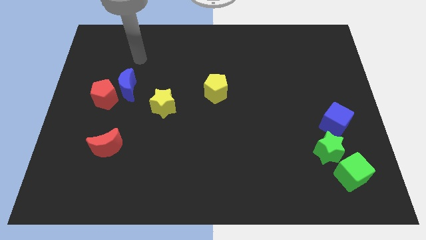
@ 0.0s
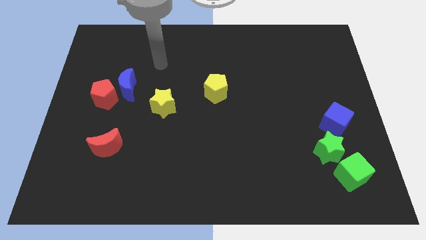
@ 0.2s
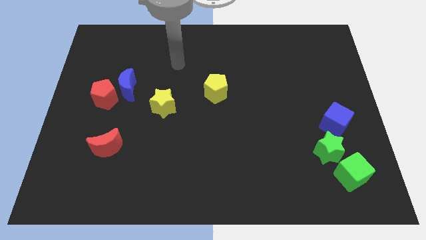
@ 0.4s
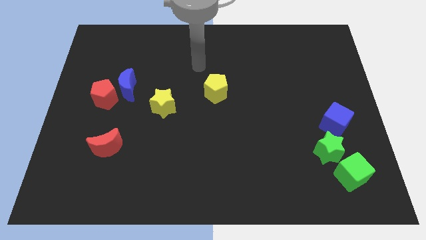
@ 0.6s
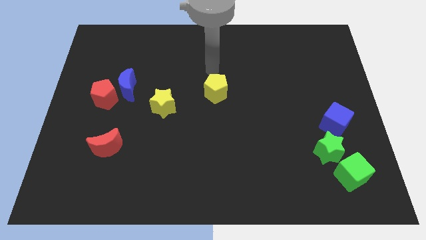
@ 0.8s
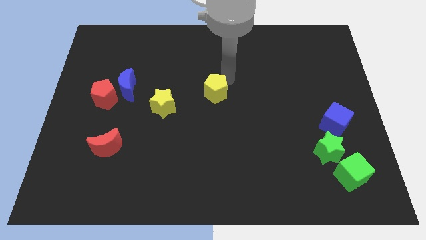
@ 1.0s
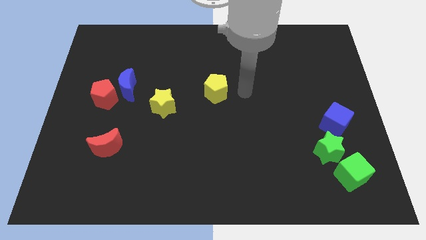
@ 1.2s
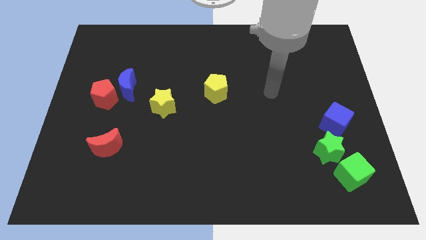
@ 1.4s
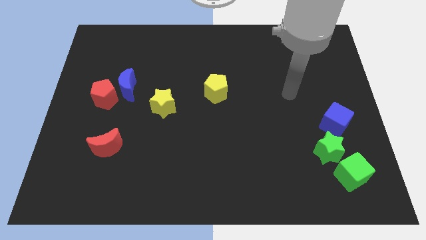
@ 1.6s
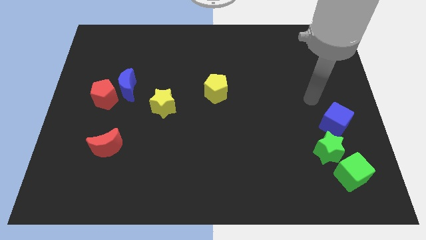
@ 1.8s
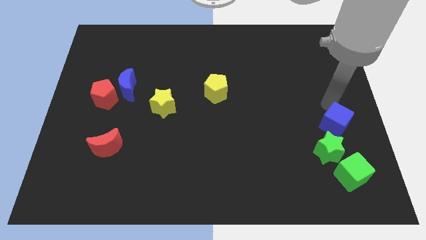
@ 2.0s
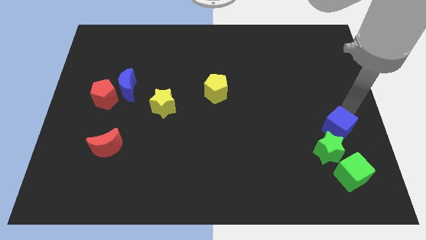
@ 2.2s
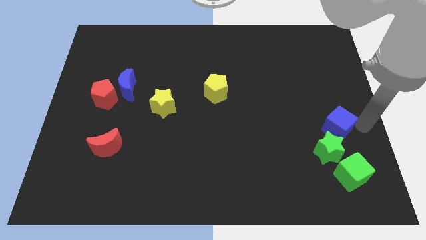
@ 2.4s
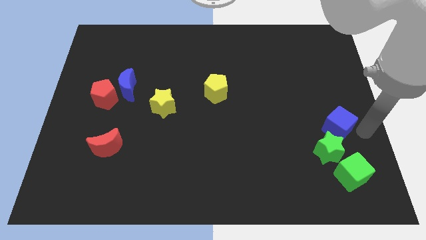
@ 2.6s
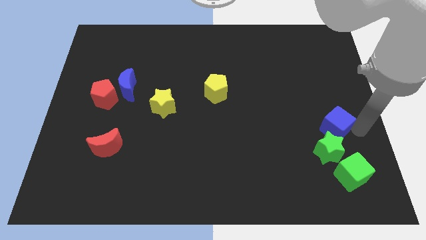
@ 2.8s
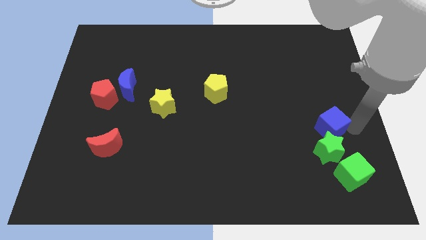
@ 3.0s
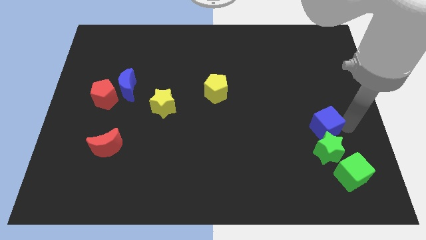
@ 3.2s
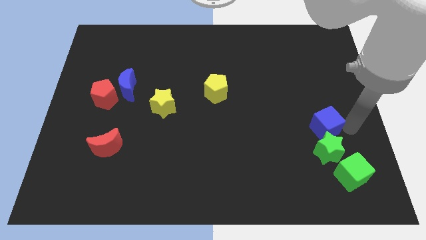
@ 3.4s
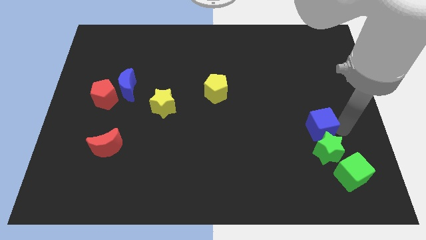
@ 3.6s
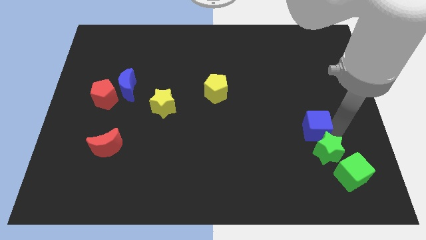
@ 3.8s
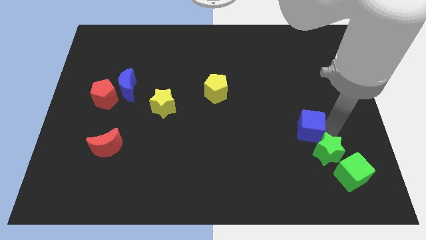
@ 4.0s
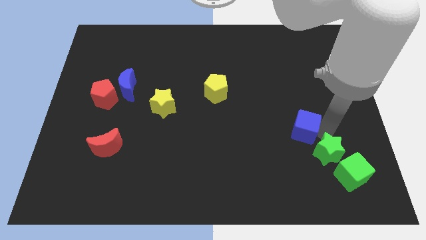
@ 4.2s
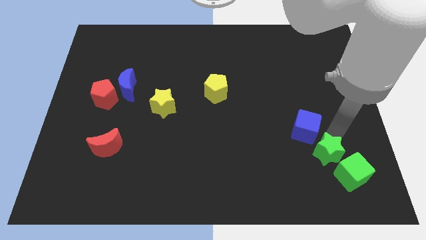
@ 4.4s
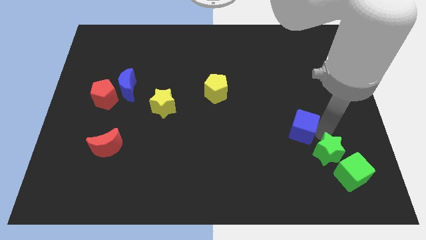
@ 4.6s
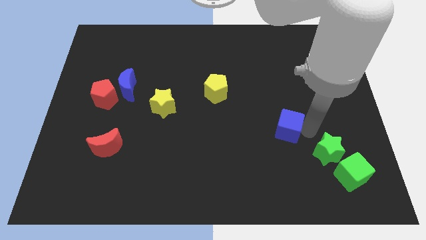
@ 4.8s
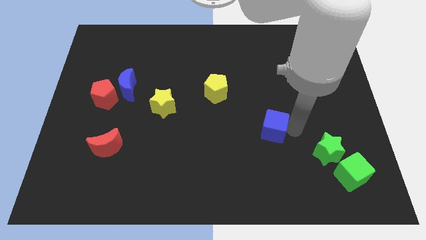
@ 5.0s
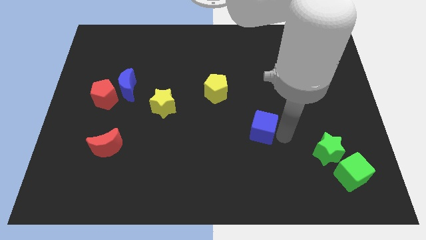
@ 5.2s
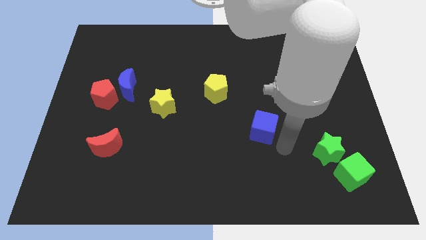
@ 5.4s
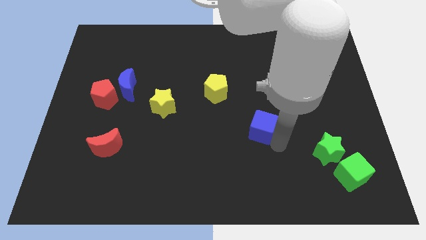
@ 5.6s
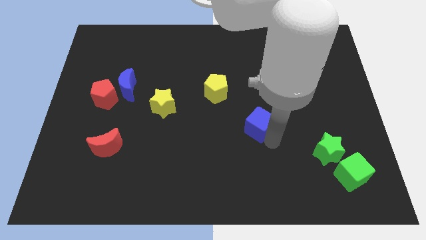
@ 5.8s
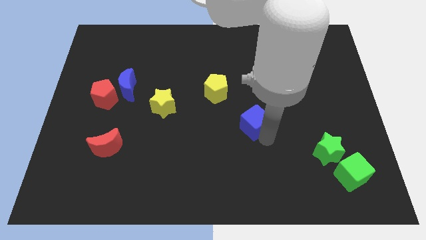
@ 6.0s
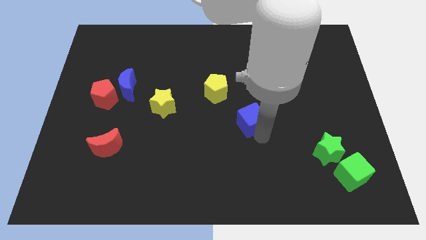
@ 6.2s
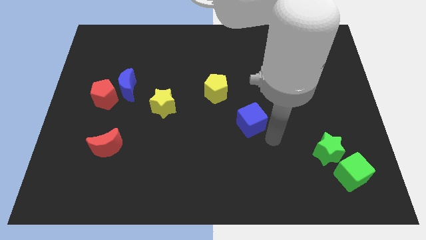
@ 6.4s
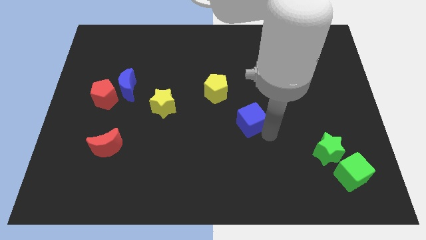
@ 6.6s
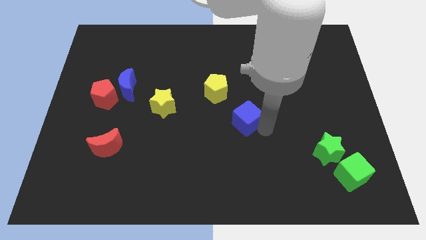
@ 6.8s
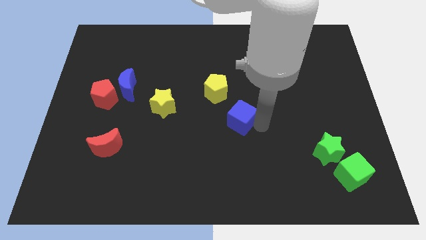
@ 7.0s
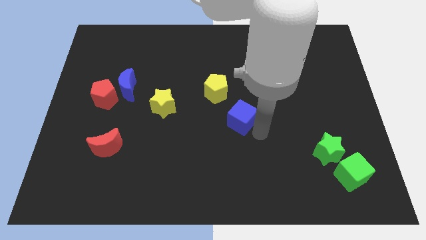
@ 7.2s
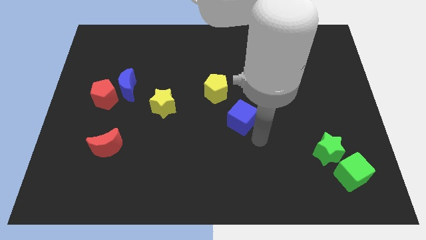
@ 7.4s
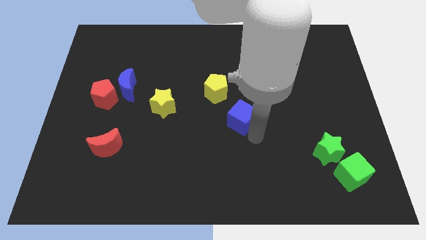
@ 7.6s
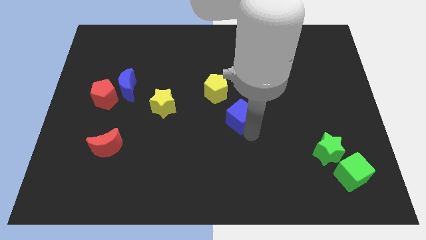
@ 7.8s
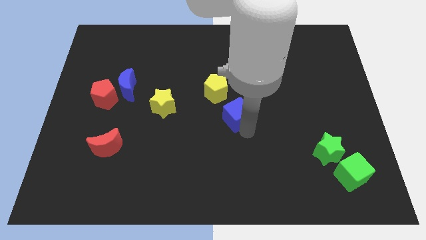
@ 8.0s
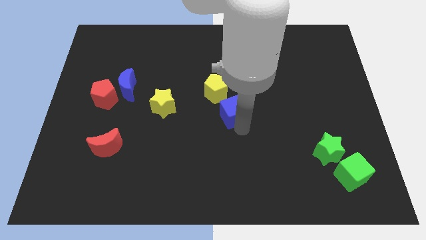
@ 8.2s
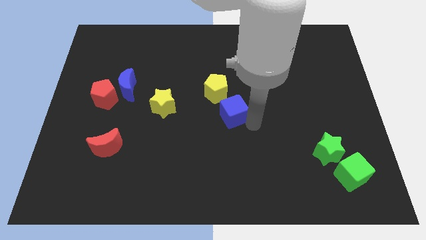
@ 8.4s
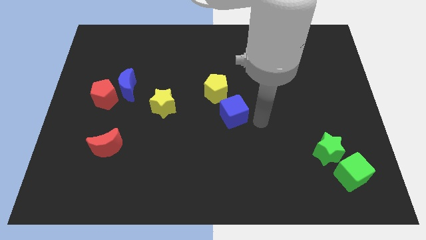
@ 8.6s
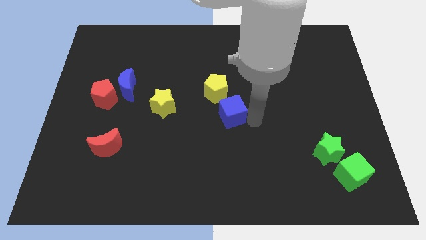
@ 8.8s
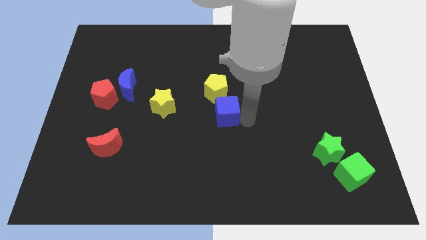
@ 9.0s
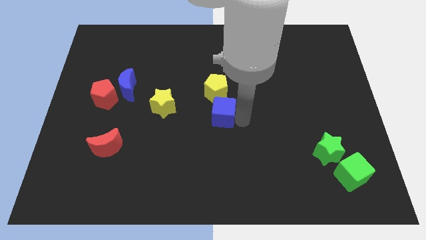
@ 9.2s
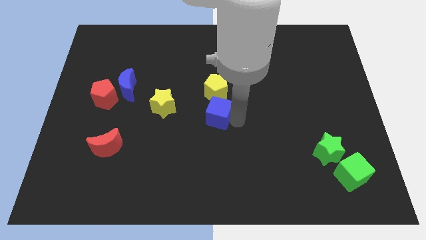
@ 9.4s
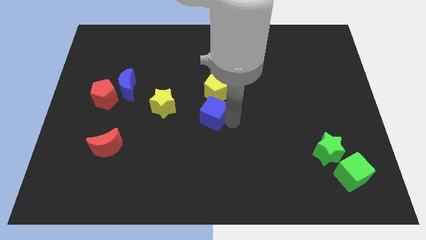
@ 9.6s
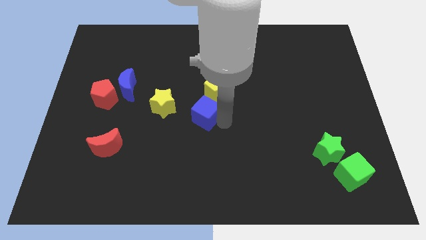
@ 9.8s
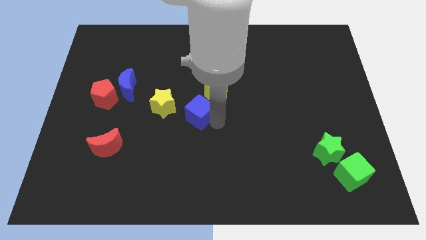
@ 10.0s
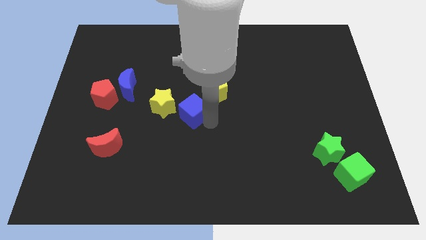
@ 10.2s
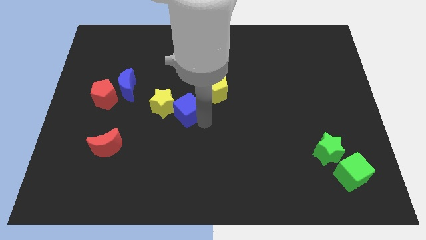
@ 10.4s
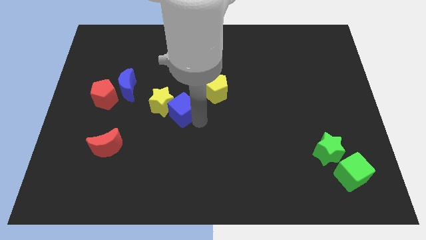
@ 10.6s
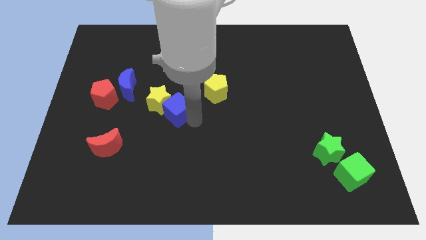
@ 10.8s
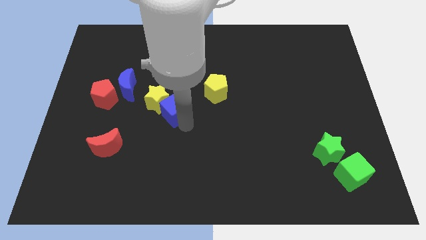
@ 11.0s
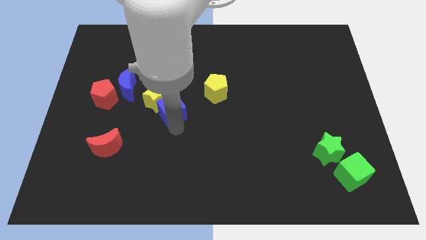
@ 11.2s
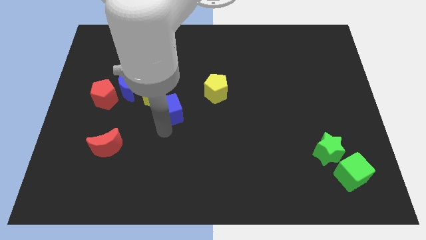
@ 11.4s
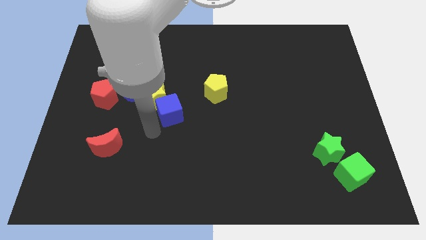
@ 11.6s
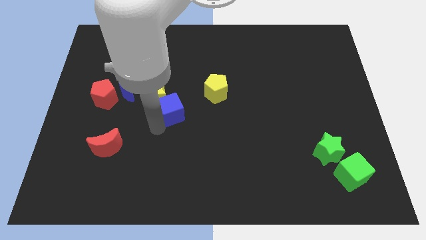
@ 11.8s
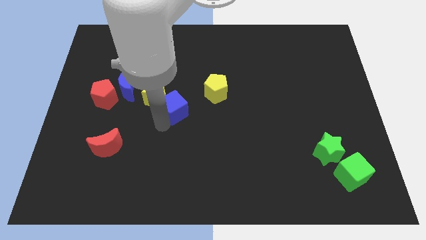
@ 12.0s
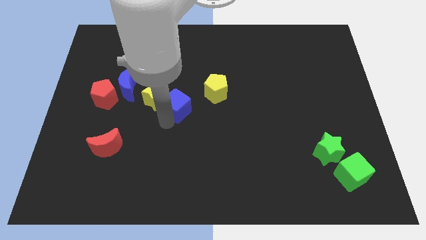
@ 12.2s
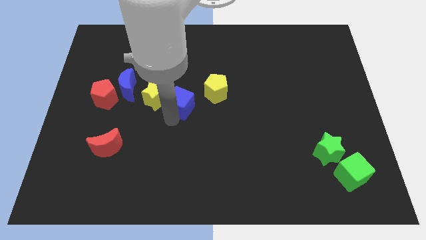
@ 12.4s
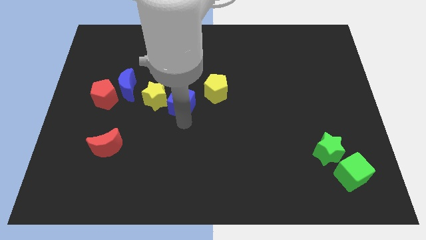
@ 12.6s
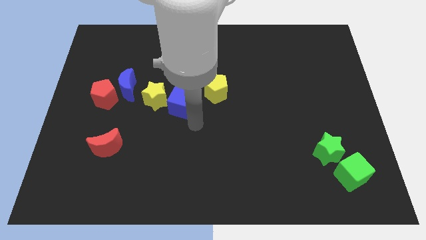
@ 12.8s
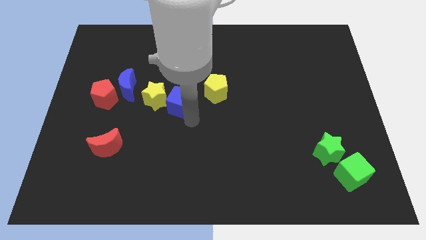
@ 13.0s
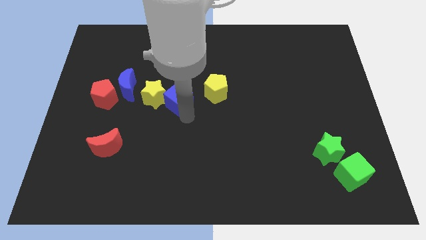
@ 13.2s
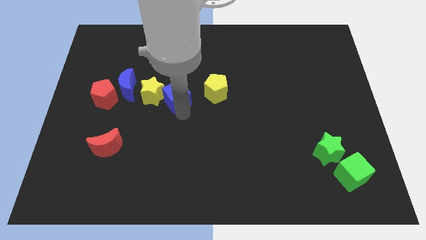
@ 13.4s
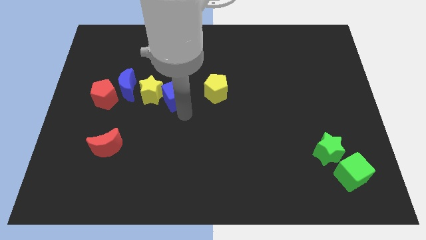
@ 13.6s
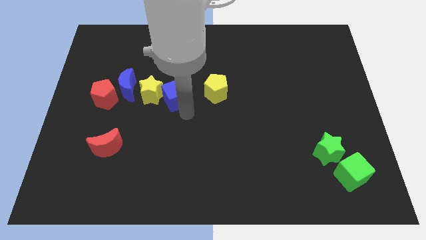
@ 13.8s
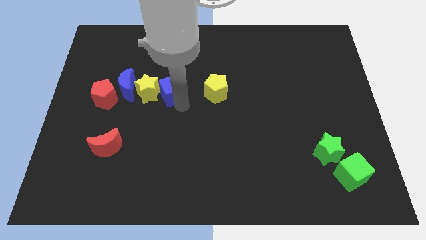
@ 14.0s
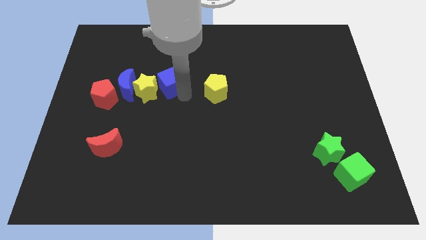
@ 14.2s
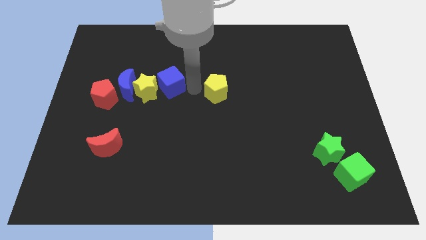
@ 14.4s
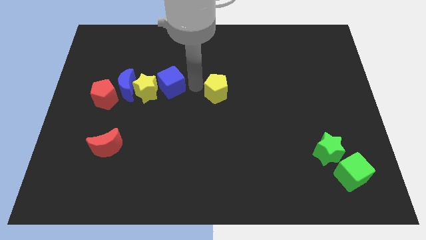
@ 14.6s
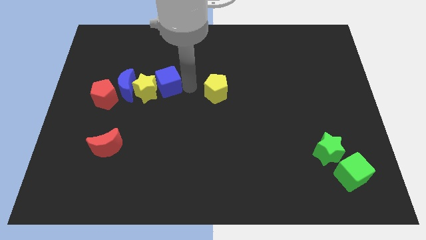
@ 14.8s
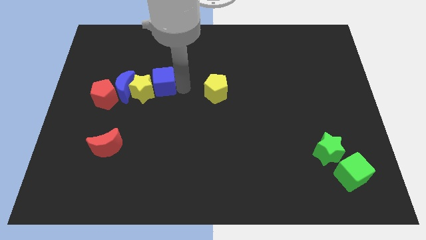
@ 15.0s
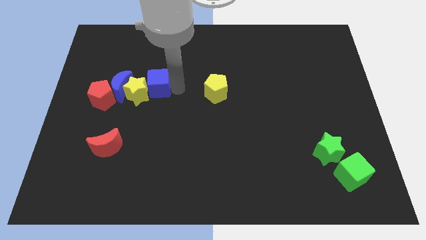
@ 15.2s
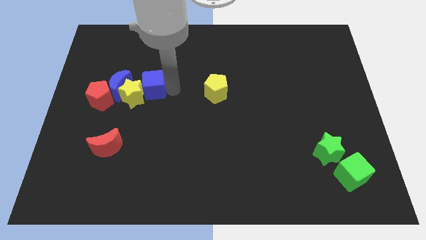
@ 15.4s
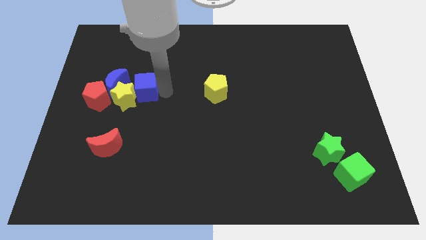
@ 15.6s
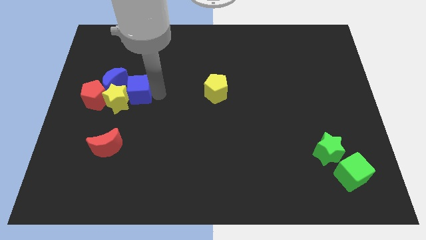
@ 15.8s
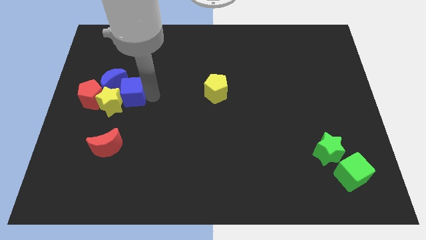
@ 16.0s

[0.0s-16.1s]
put the blue cube next to the blue moon
